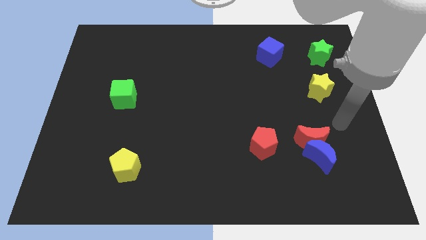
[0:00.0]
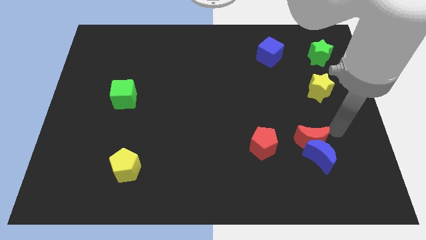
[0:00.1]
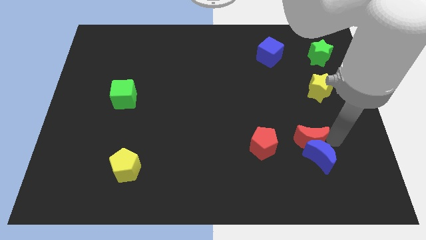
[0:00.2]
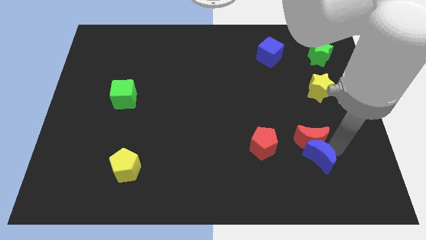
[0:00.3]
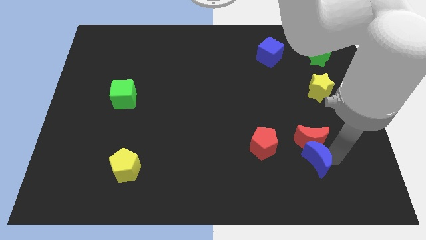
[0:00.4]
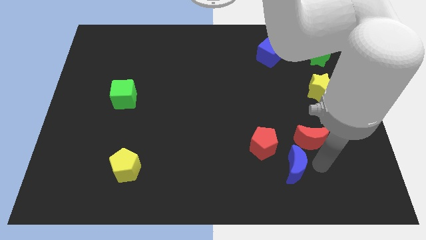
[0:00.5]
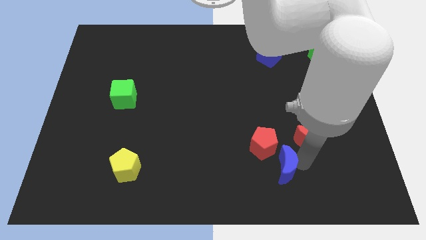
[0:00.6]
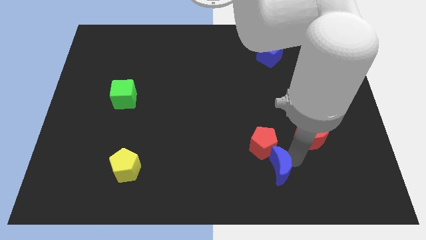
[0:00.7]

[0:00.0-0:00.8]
separate the red moon from the blue moon

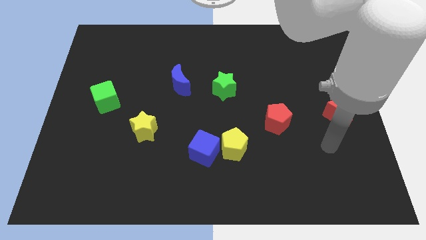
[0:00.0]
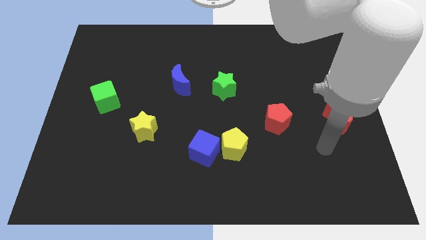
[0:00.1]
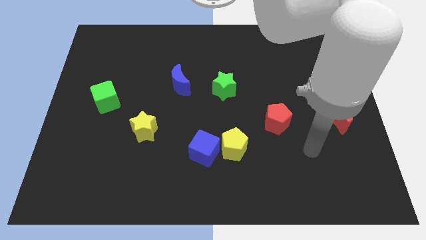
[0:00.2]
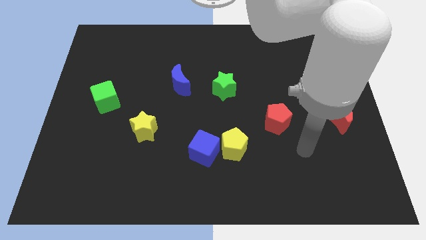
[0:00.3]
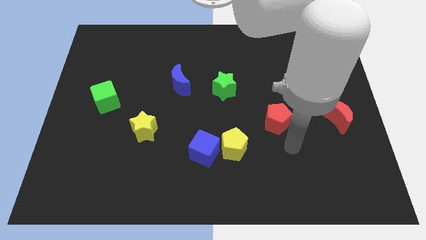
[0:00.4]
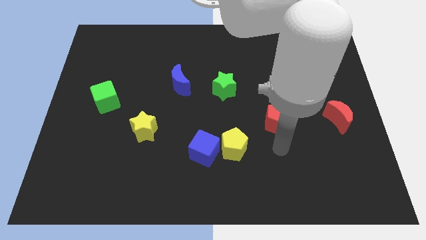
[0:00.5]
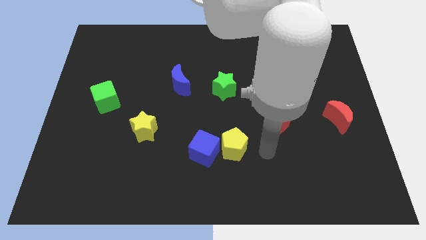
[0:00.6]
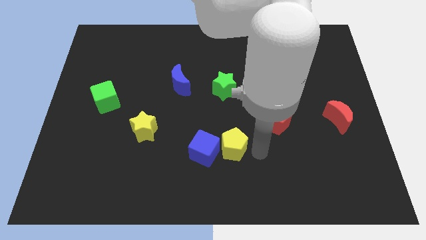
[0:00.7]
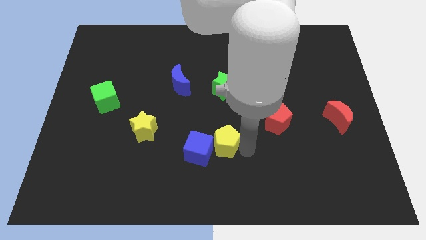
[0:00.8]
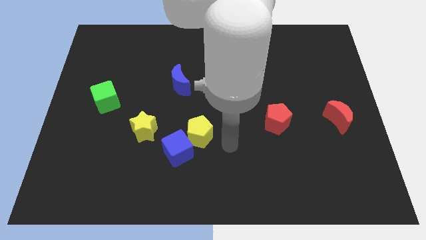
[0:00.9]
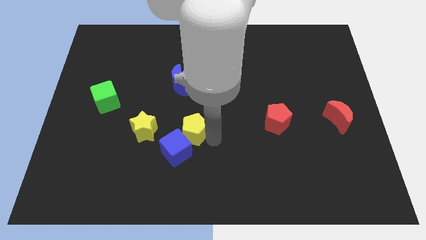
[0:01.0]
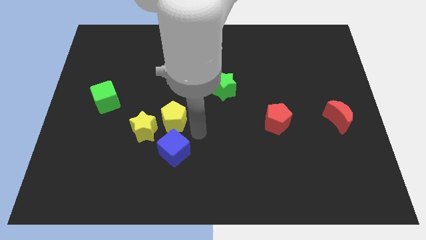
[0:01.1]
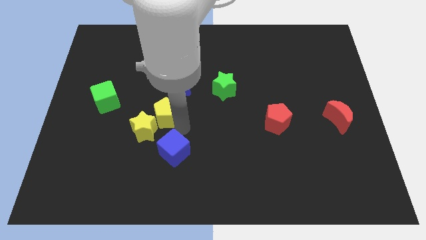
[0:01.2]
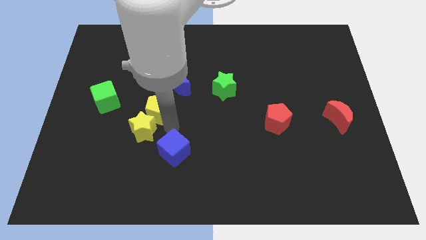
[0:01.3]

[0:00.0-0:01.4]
move the blue cube away from the yellow pentagon

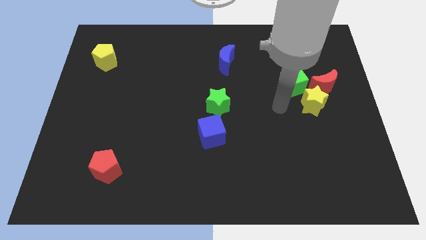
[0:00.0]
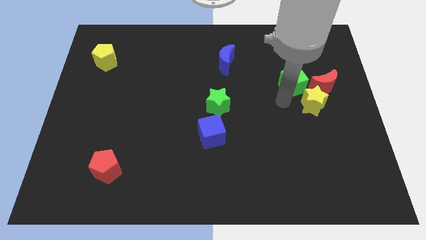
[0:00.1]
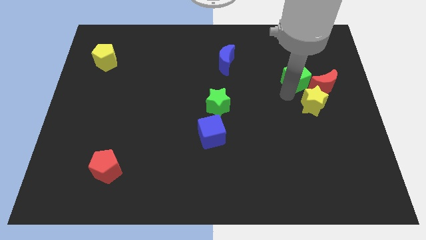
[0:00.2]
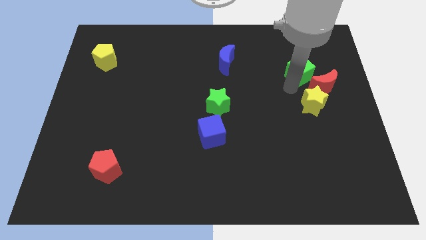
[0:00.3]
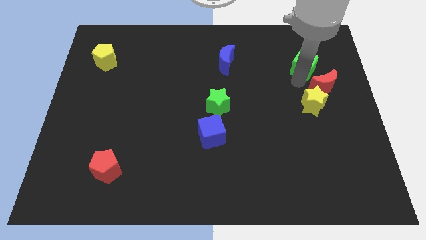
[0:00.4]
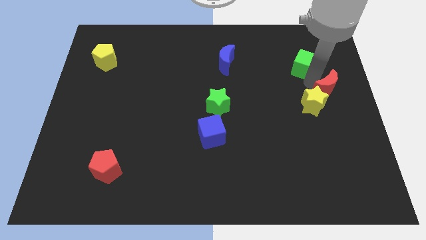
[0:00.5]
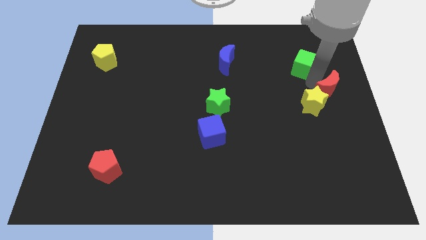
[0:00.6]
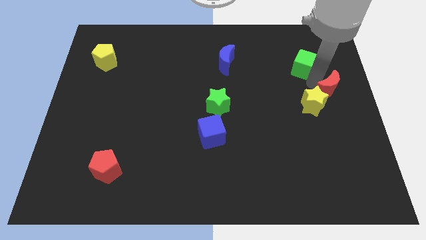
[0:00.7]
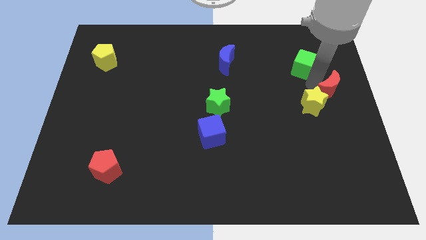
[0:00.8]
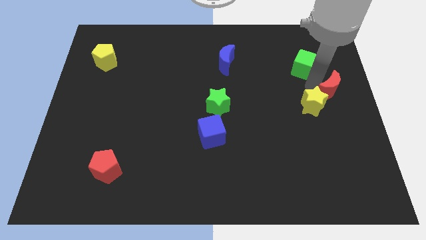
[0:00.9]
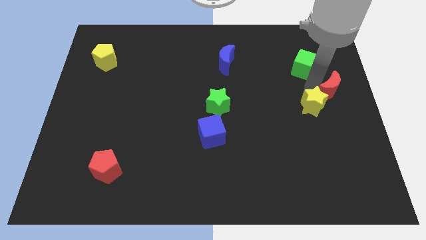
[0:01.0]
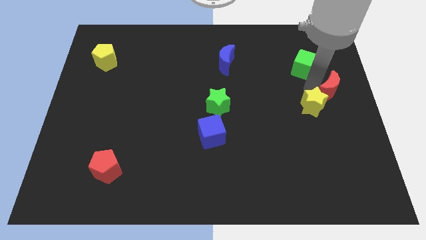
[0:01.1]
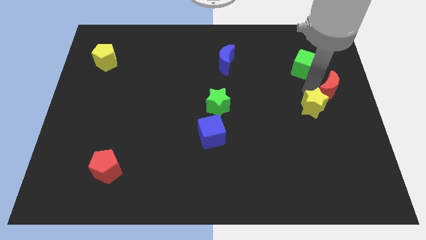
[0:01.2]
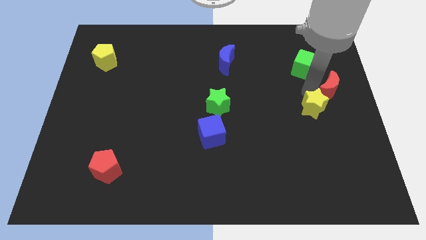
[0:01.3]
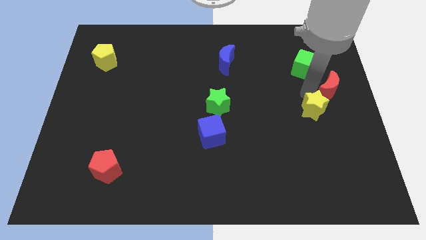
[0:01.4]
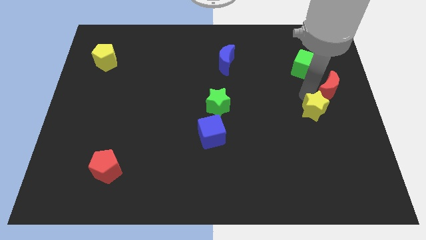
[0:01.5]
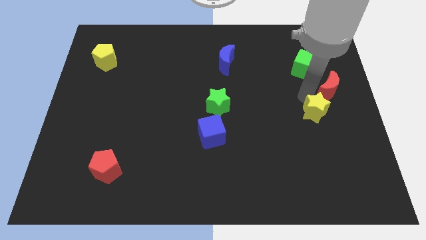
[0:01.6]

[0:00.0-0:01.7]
separate the yellow star from the red moon and green cube

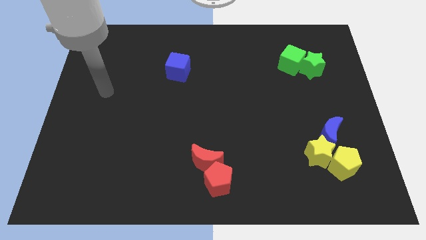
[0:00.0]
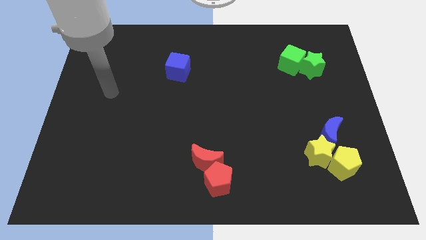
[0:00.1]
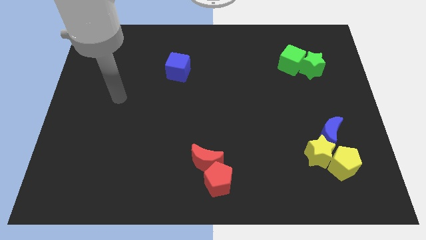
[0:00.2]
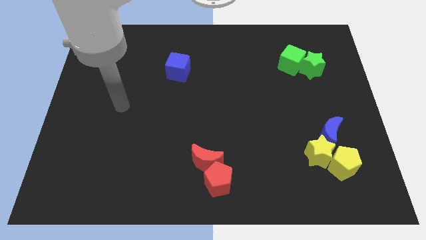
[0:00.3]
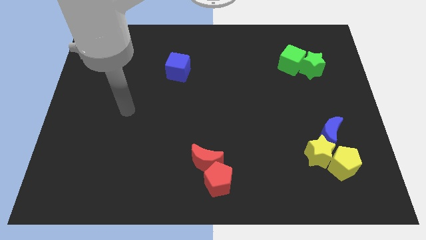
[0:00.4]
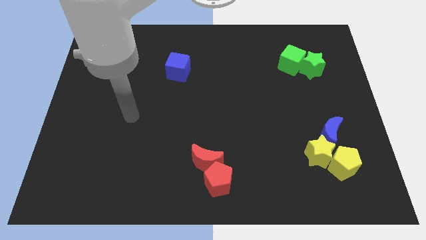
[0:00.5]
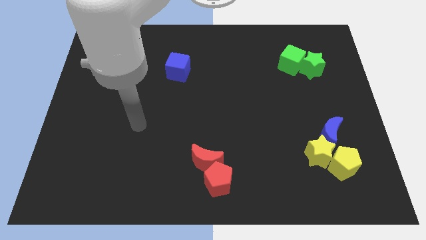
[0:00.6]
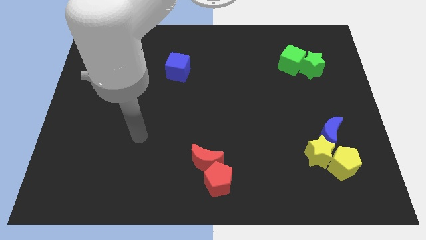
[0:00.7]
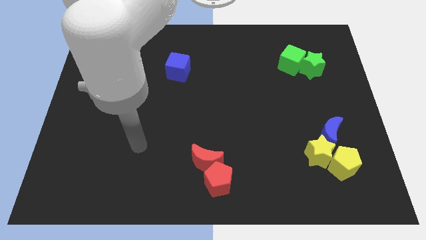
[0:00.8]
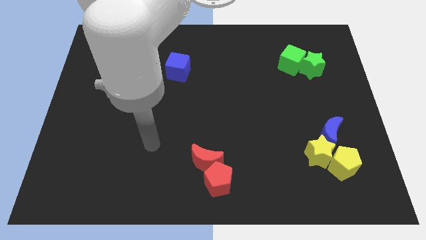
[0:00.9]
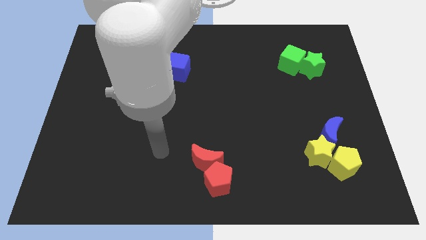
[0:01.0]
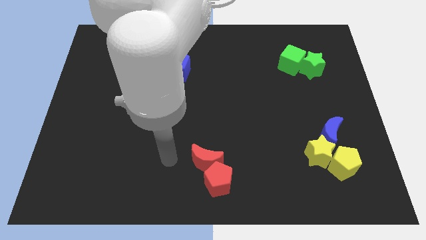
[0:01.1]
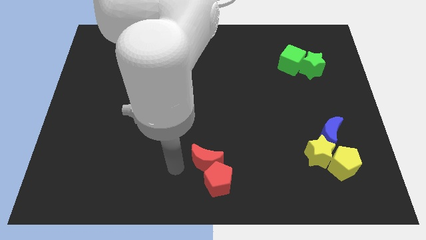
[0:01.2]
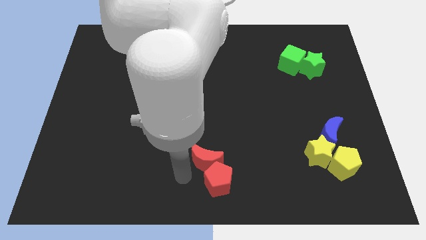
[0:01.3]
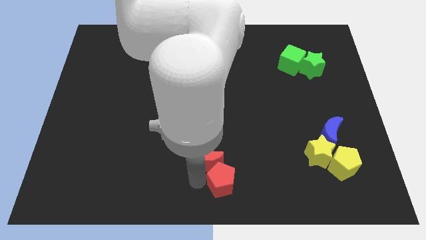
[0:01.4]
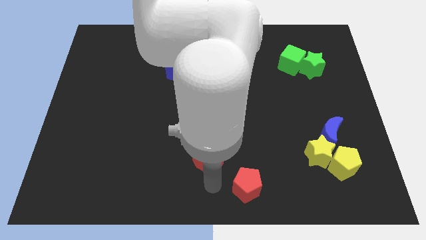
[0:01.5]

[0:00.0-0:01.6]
move the red moon away from the red pentagon

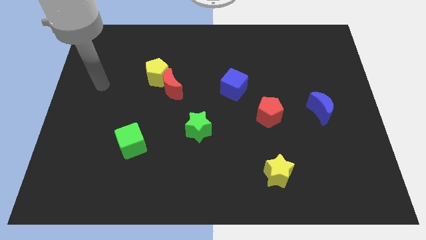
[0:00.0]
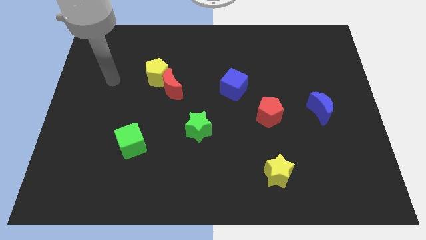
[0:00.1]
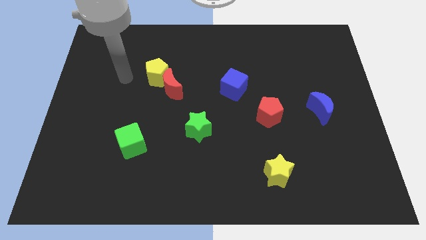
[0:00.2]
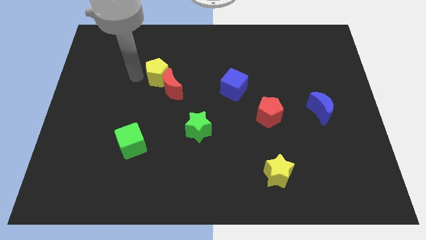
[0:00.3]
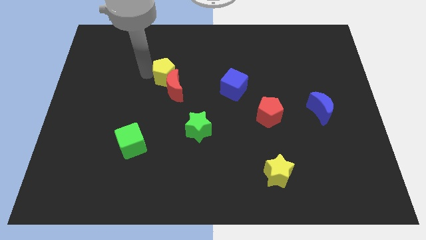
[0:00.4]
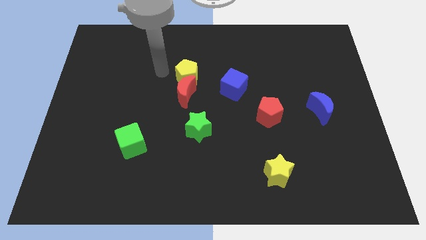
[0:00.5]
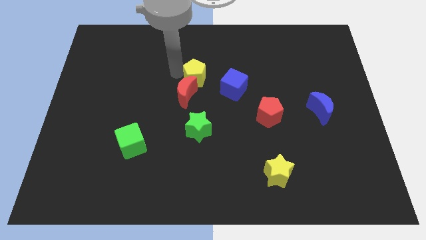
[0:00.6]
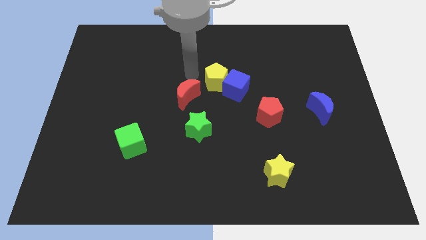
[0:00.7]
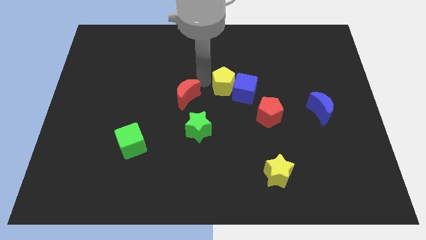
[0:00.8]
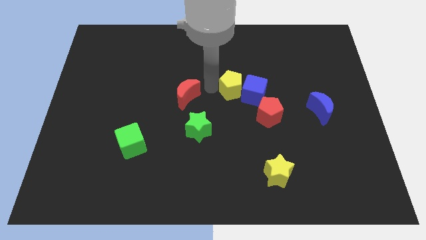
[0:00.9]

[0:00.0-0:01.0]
separate the red moon from the yellow pentagon

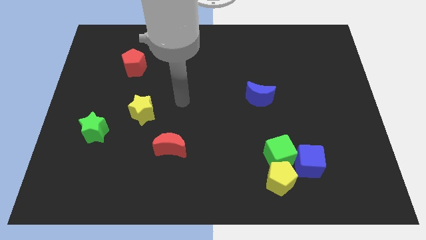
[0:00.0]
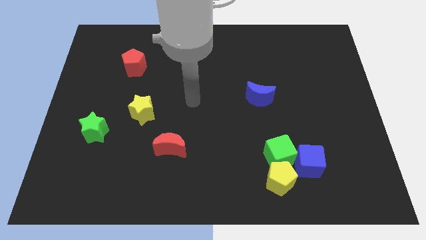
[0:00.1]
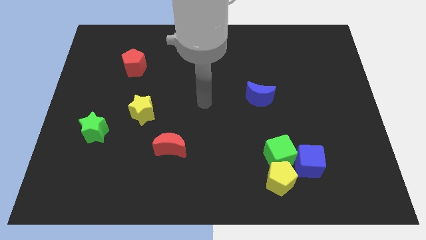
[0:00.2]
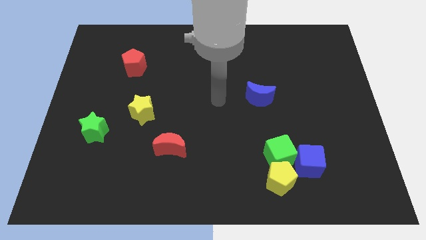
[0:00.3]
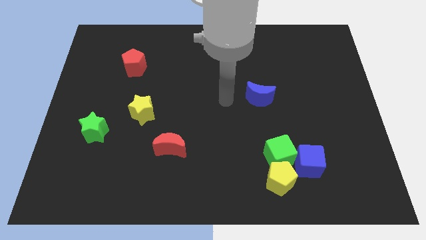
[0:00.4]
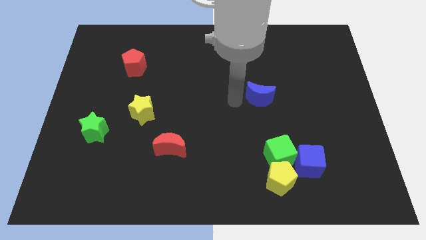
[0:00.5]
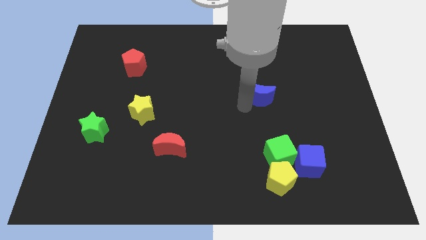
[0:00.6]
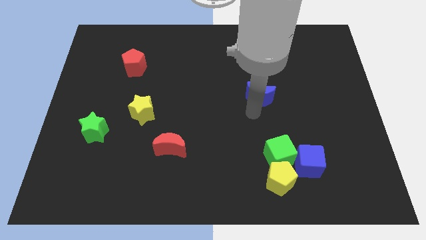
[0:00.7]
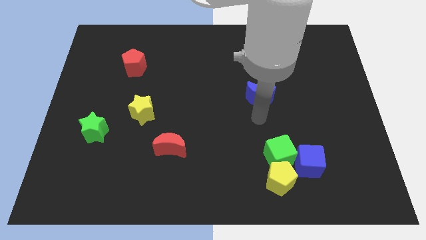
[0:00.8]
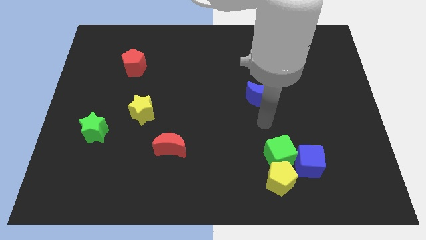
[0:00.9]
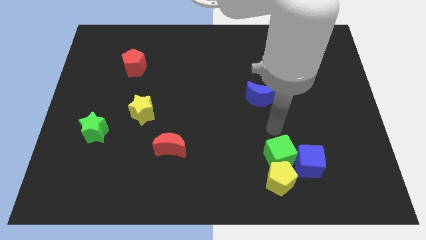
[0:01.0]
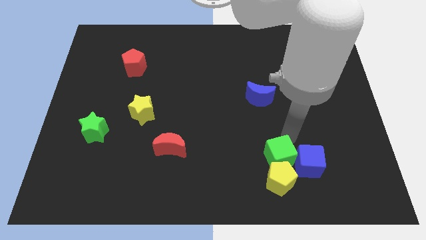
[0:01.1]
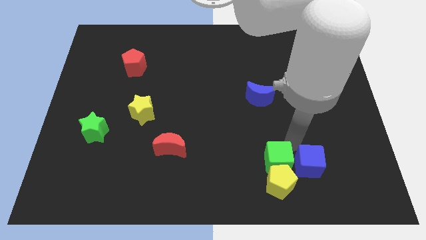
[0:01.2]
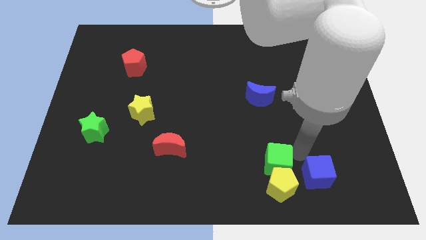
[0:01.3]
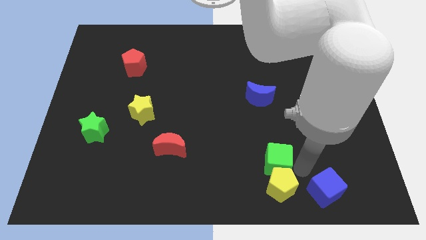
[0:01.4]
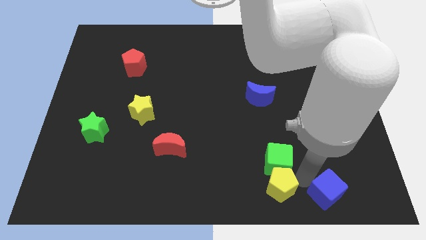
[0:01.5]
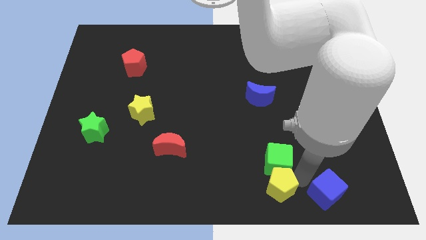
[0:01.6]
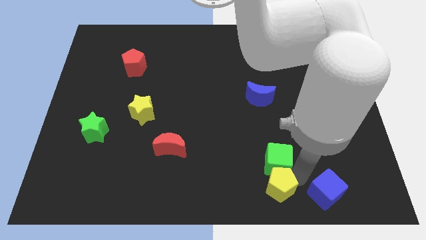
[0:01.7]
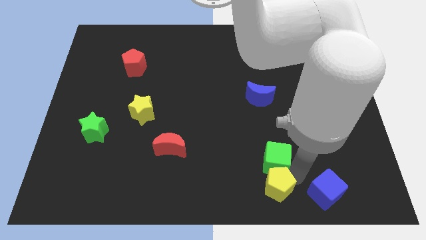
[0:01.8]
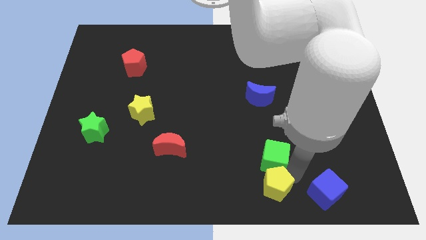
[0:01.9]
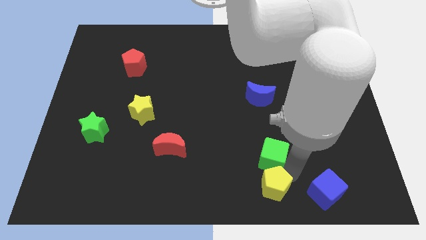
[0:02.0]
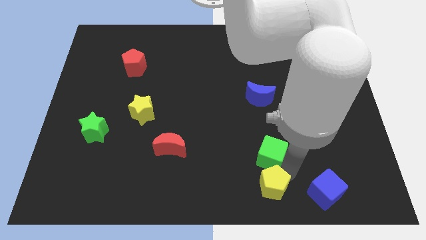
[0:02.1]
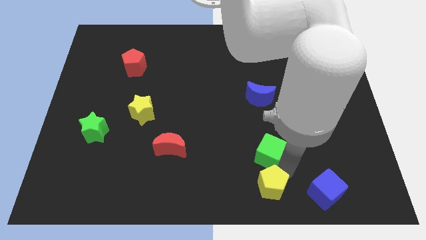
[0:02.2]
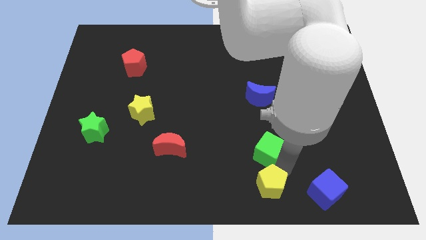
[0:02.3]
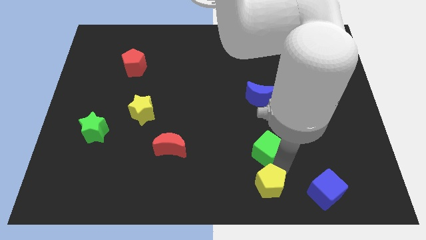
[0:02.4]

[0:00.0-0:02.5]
pull the green cube apart from the yellow pentagon and blue cube

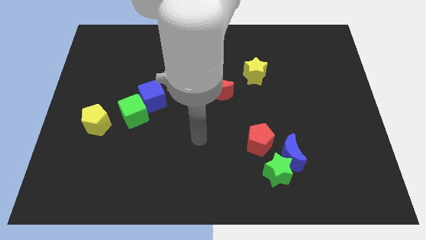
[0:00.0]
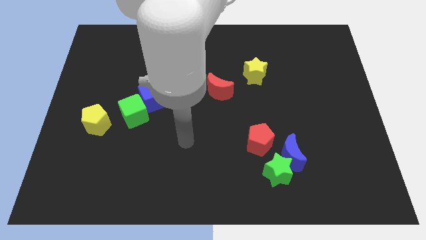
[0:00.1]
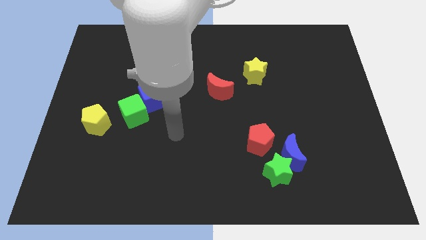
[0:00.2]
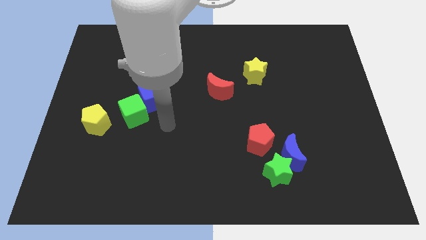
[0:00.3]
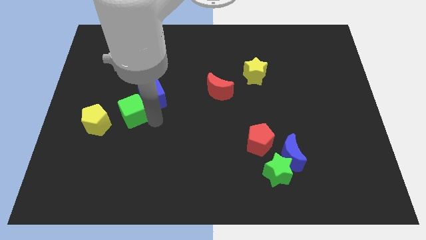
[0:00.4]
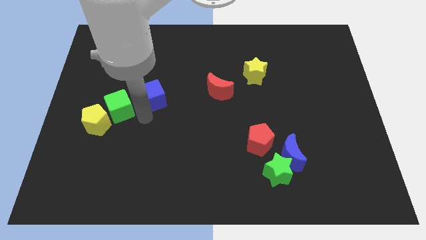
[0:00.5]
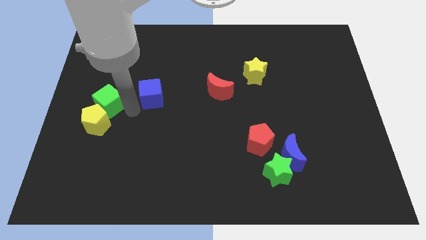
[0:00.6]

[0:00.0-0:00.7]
pull the blue cube apart from the green cube
